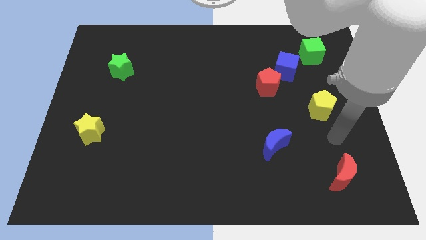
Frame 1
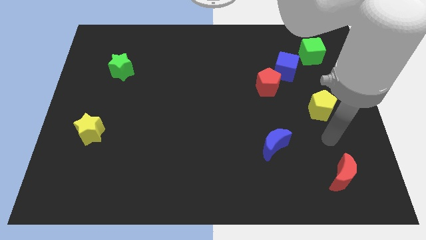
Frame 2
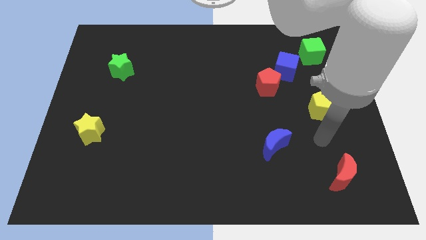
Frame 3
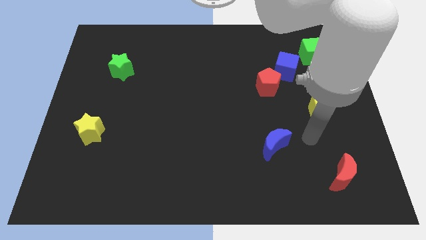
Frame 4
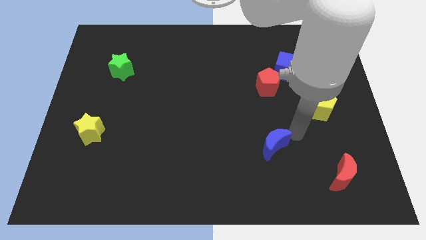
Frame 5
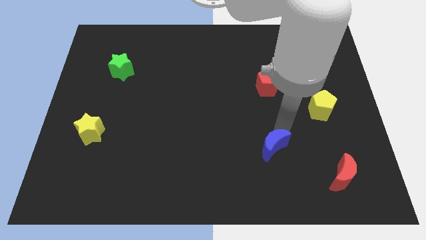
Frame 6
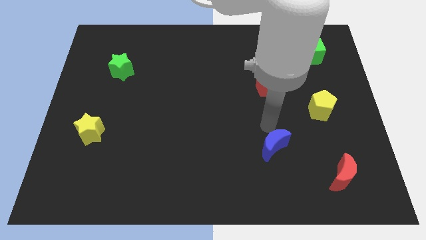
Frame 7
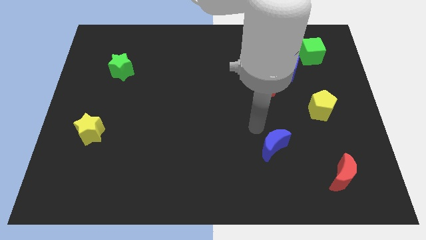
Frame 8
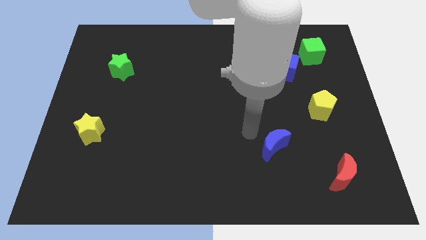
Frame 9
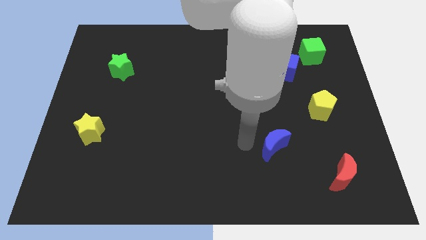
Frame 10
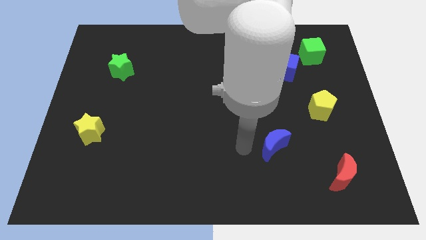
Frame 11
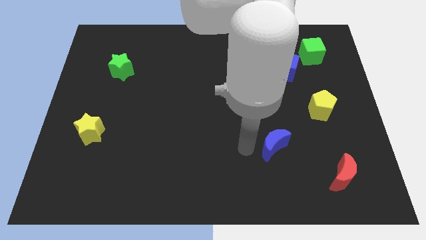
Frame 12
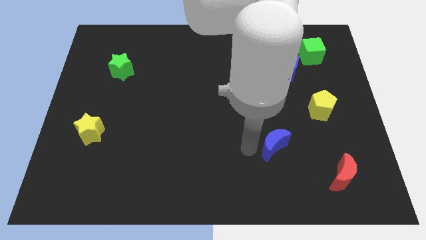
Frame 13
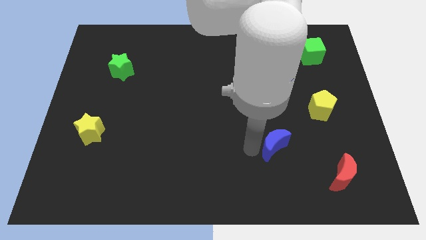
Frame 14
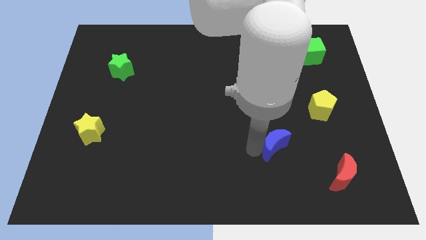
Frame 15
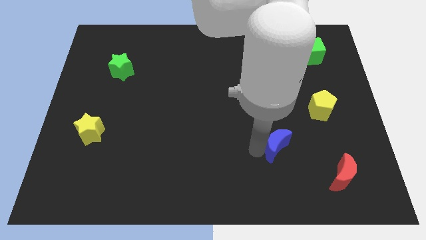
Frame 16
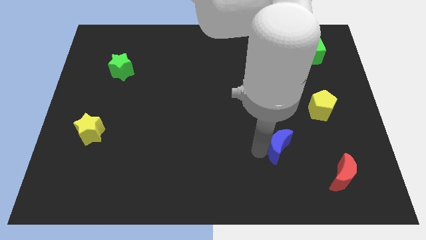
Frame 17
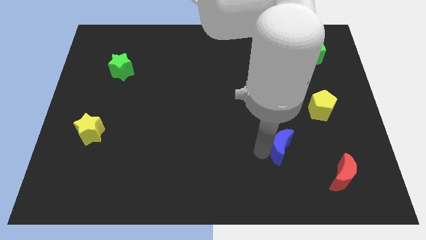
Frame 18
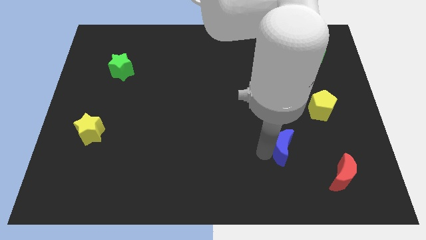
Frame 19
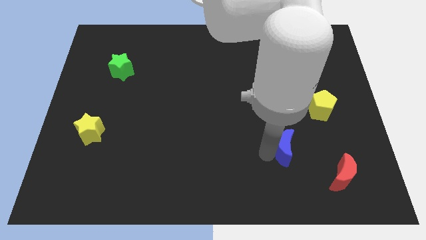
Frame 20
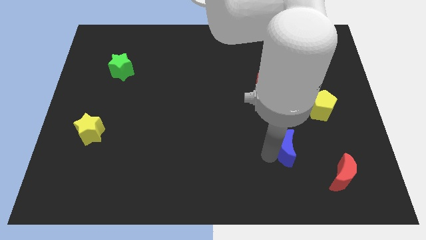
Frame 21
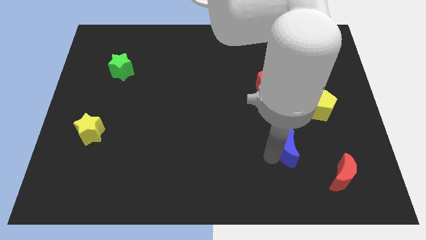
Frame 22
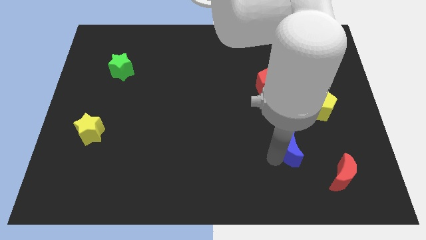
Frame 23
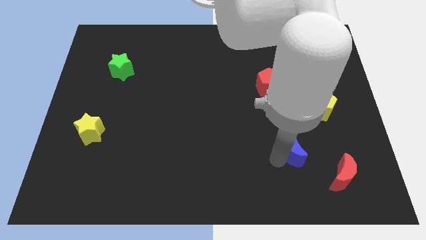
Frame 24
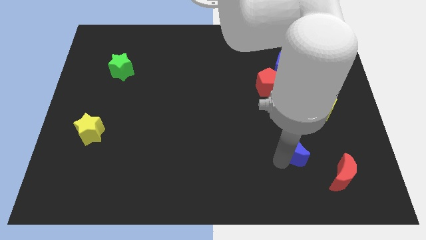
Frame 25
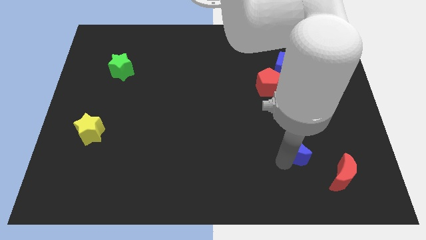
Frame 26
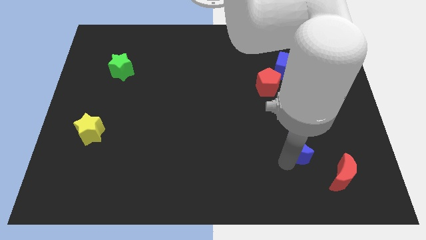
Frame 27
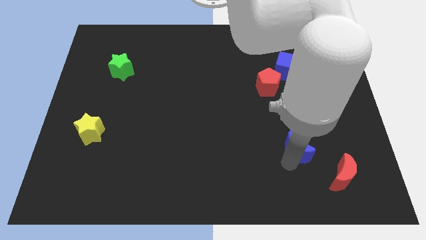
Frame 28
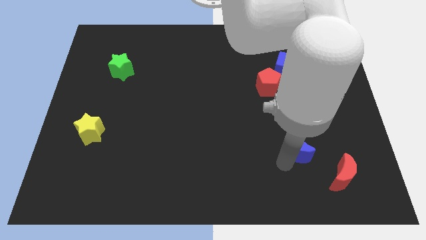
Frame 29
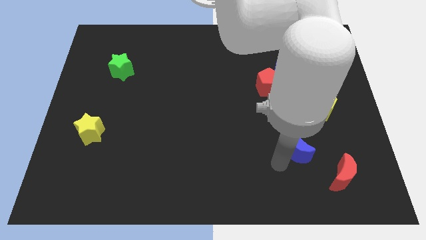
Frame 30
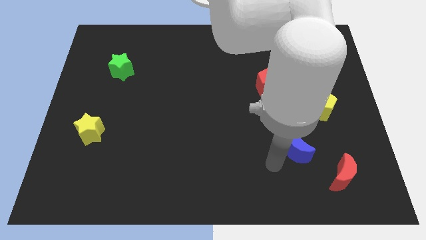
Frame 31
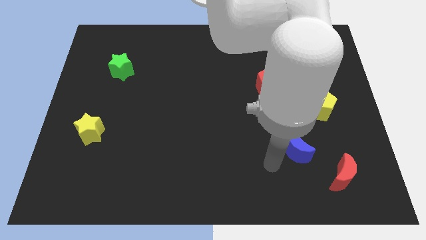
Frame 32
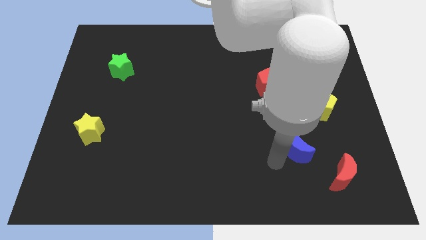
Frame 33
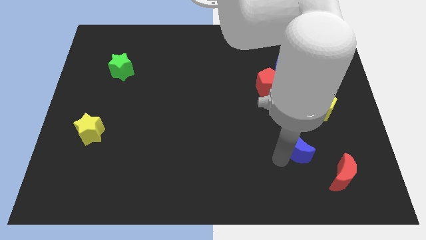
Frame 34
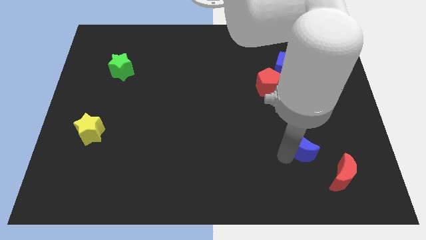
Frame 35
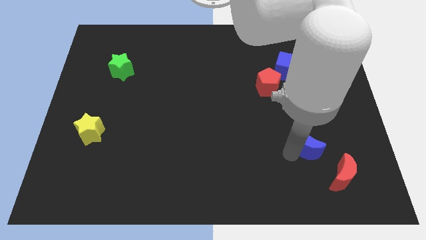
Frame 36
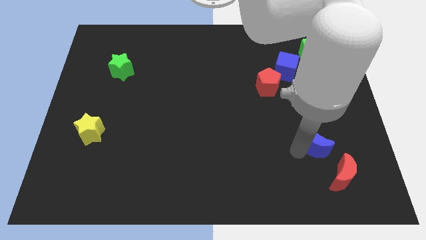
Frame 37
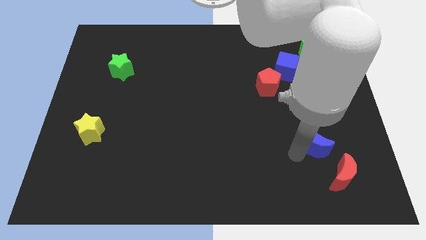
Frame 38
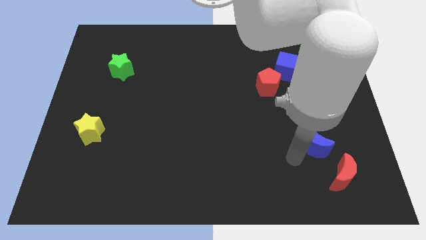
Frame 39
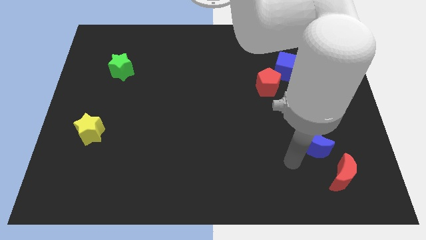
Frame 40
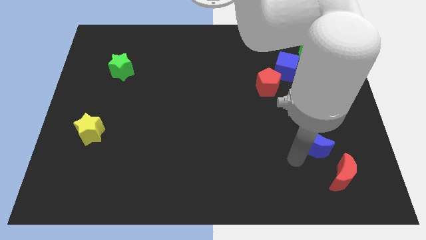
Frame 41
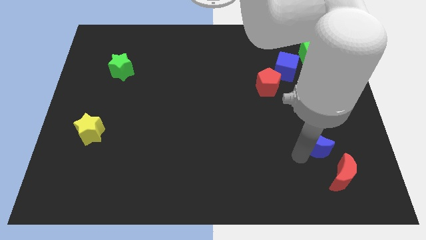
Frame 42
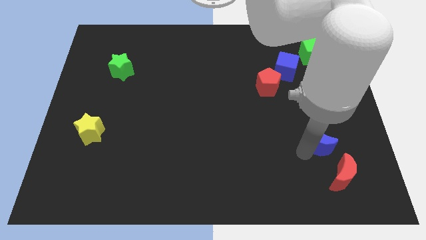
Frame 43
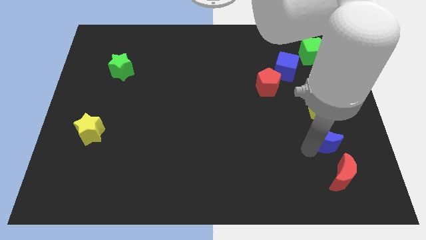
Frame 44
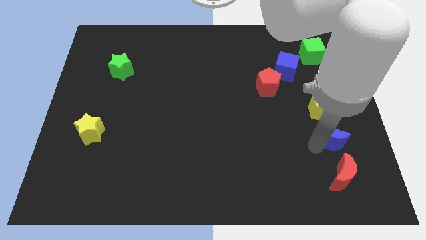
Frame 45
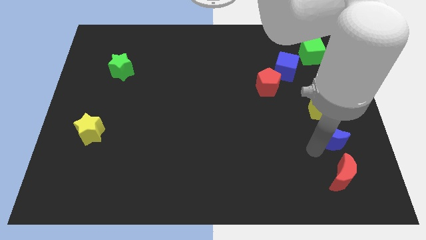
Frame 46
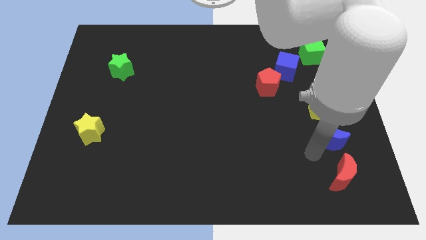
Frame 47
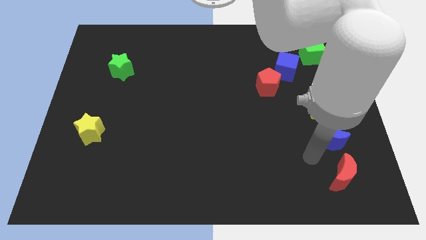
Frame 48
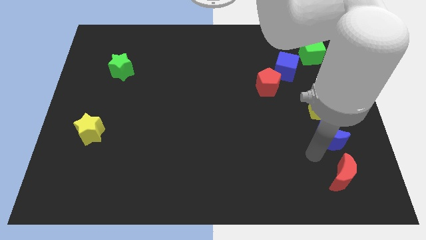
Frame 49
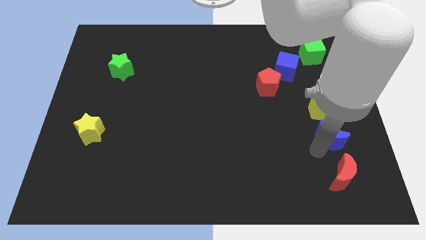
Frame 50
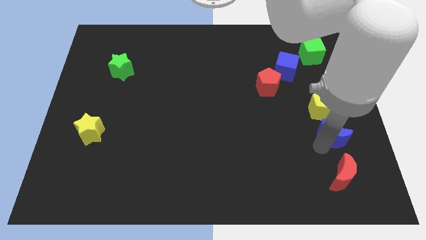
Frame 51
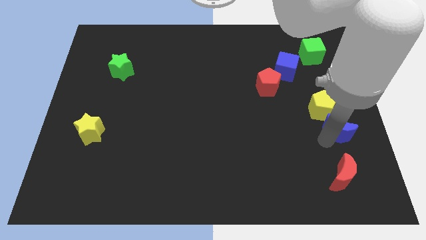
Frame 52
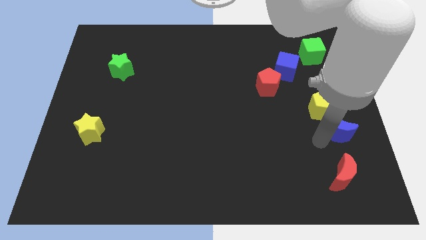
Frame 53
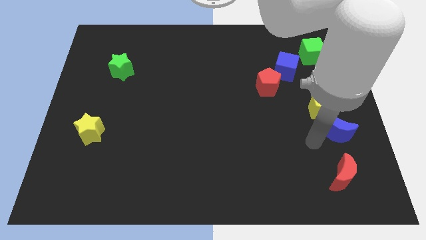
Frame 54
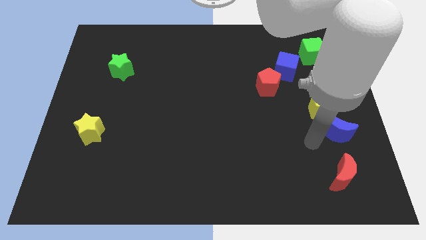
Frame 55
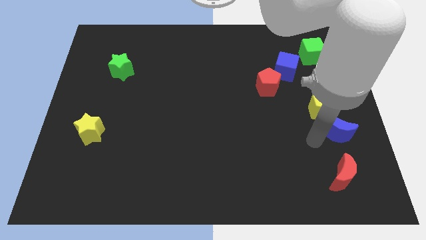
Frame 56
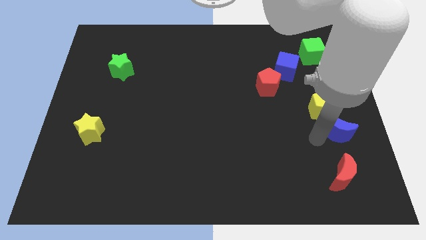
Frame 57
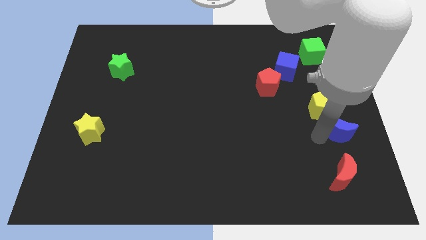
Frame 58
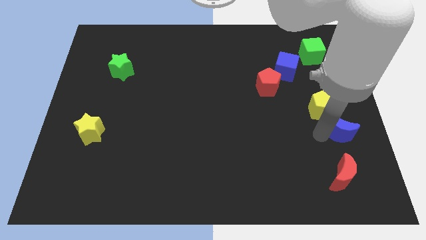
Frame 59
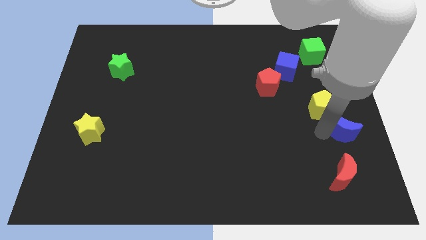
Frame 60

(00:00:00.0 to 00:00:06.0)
push the blue moon to the right side of the board

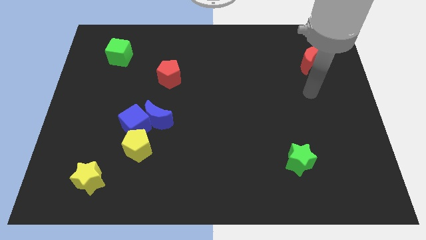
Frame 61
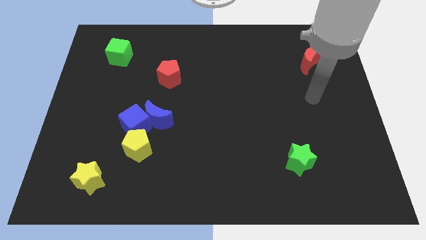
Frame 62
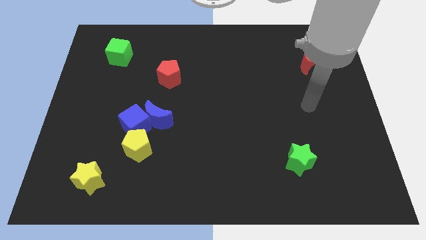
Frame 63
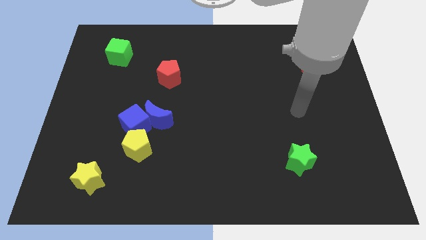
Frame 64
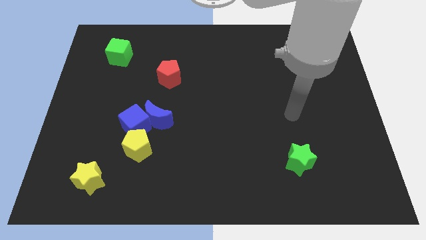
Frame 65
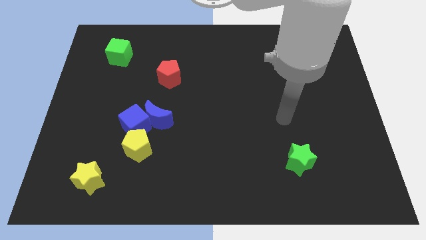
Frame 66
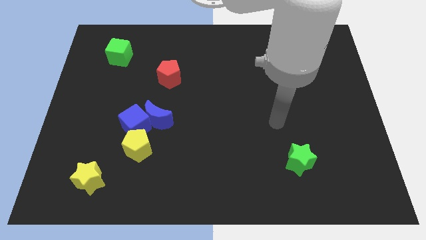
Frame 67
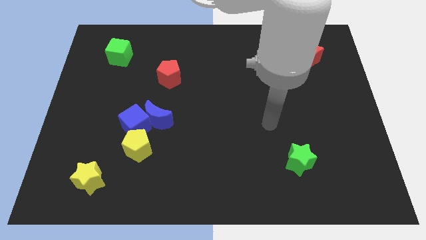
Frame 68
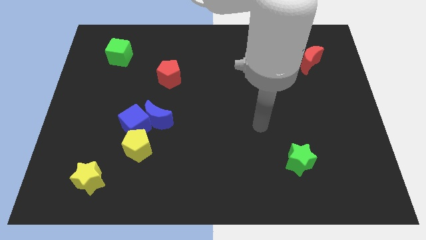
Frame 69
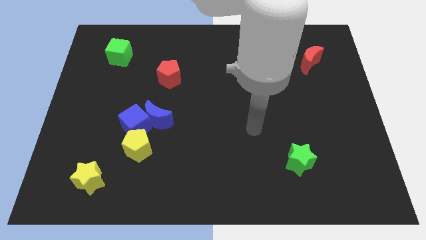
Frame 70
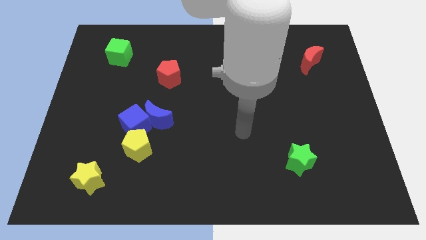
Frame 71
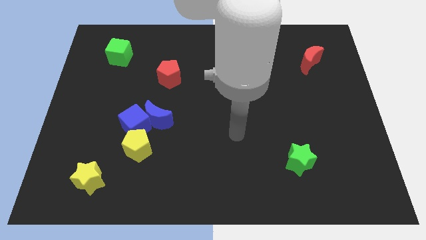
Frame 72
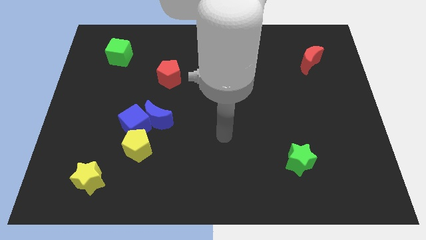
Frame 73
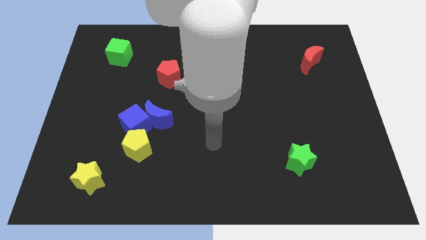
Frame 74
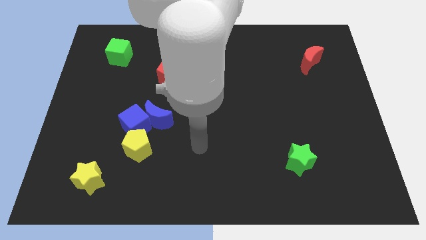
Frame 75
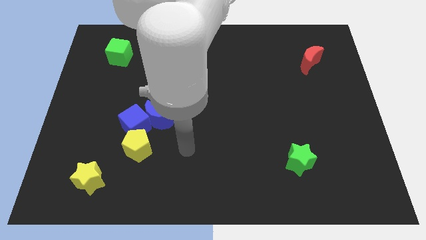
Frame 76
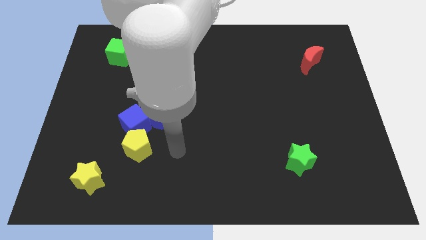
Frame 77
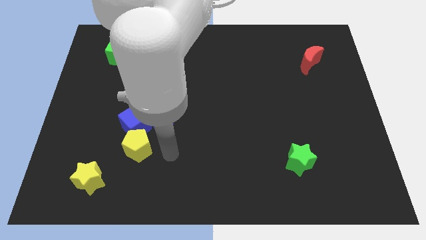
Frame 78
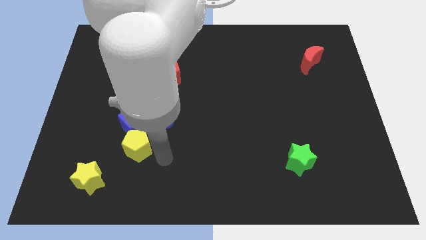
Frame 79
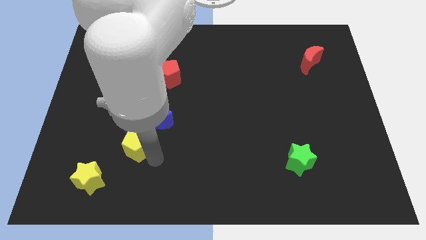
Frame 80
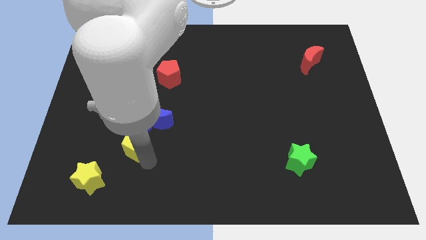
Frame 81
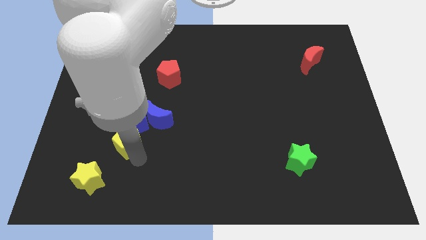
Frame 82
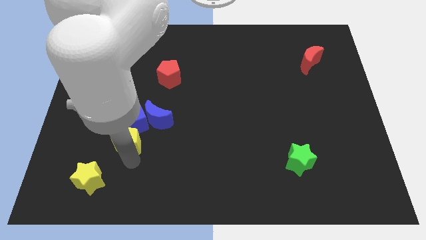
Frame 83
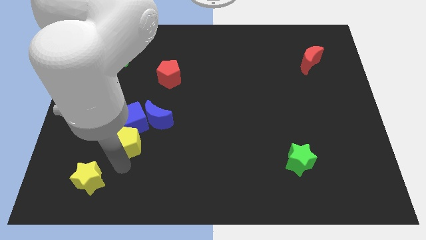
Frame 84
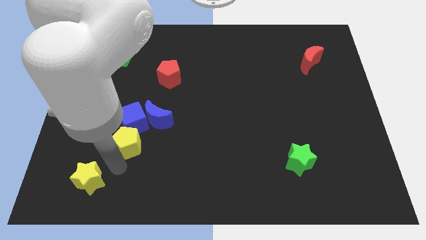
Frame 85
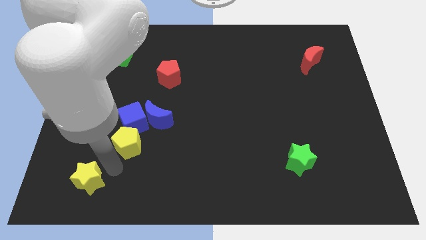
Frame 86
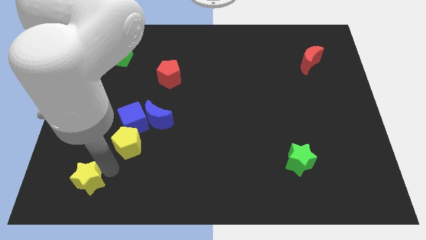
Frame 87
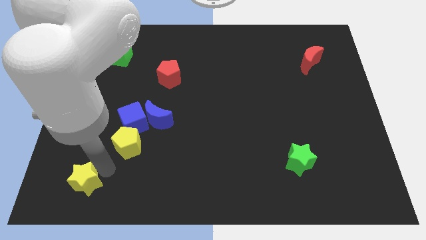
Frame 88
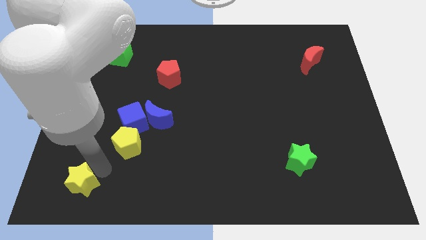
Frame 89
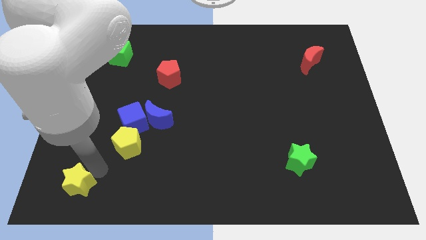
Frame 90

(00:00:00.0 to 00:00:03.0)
move the yellow star to the bottom left
